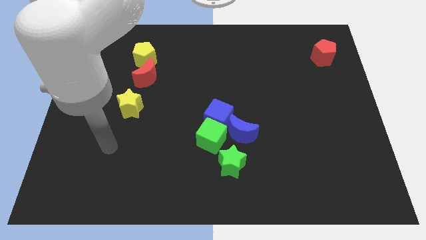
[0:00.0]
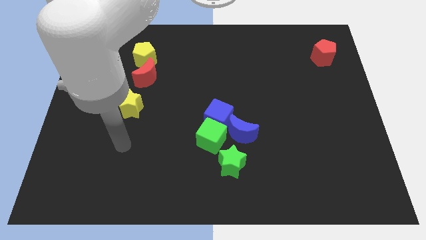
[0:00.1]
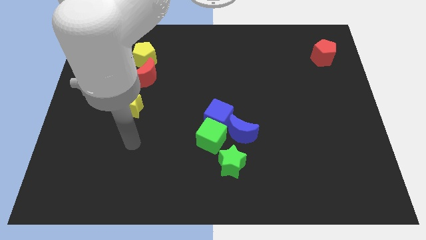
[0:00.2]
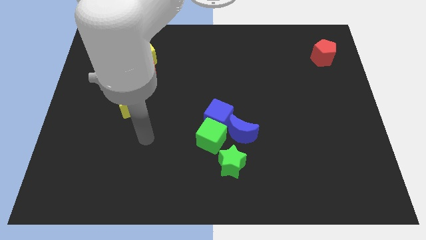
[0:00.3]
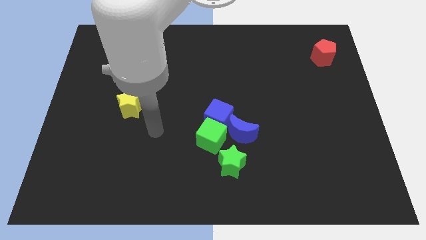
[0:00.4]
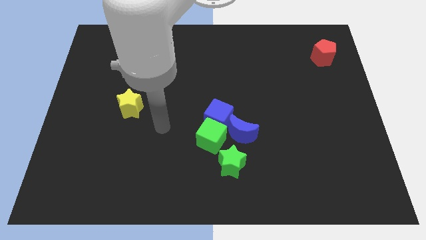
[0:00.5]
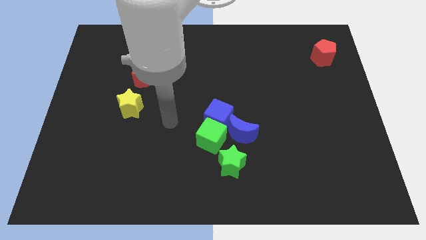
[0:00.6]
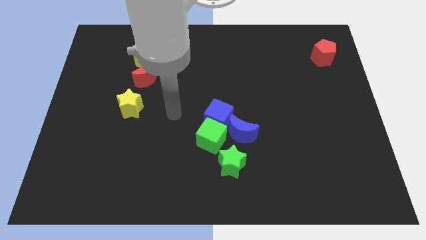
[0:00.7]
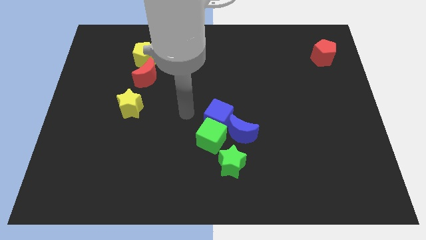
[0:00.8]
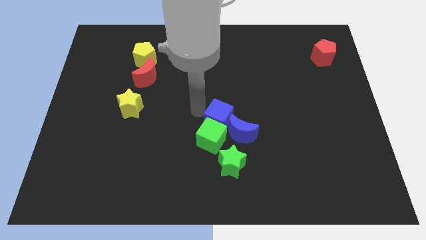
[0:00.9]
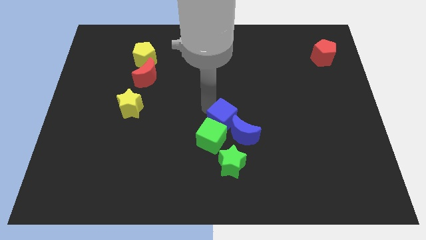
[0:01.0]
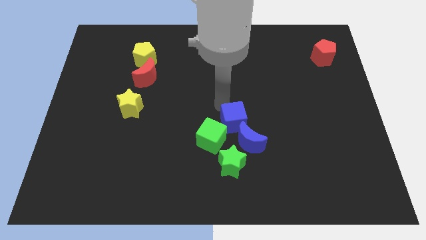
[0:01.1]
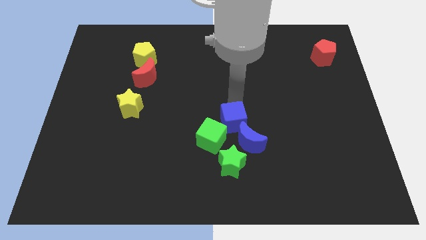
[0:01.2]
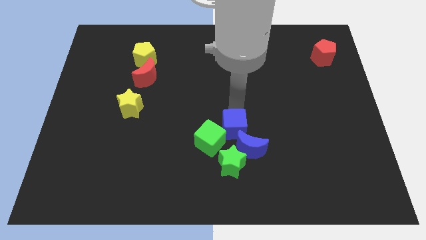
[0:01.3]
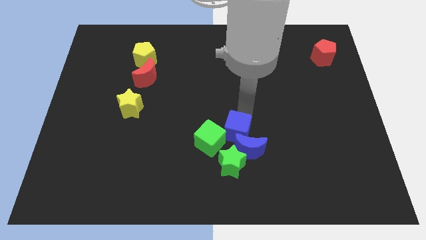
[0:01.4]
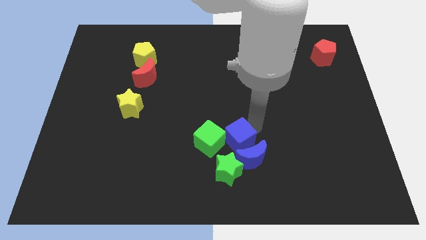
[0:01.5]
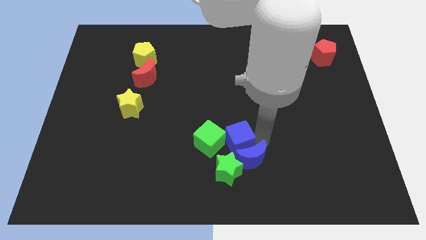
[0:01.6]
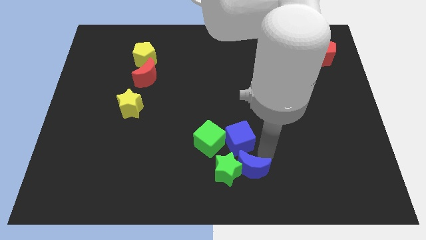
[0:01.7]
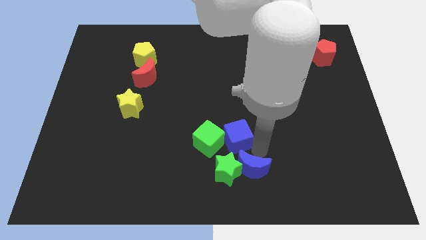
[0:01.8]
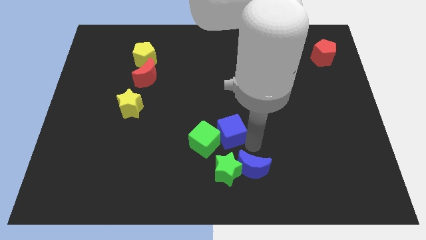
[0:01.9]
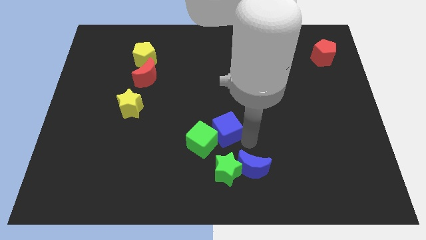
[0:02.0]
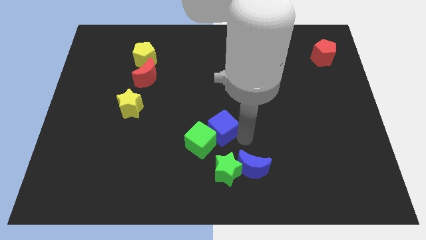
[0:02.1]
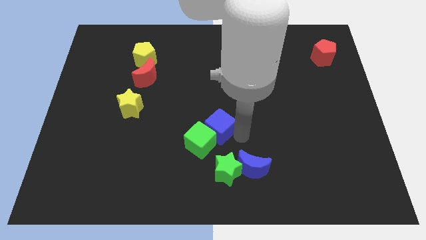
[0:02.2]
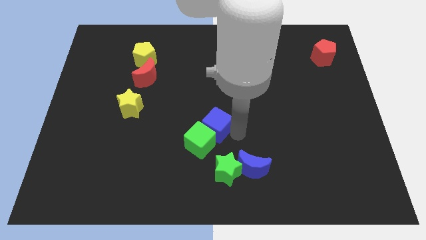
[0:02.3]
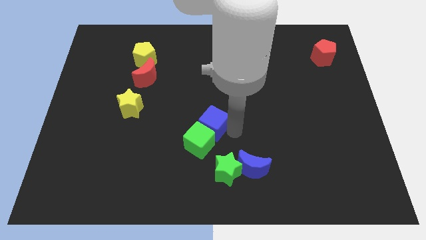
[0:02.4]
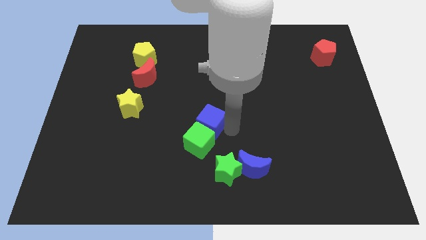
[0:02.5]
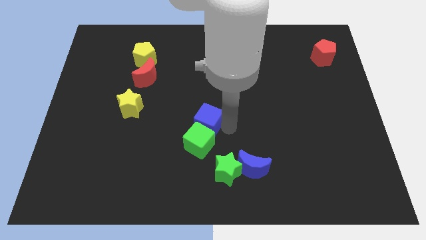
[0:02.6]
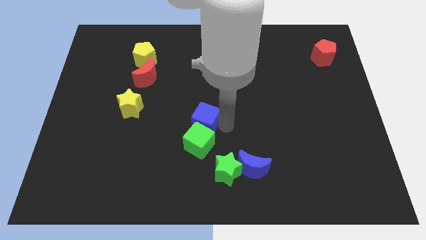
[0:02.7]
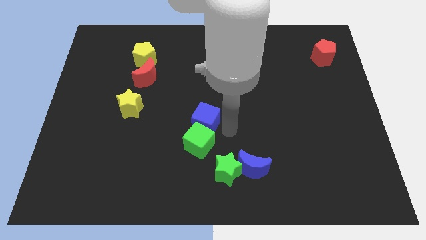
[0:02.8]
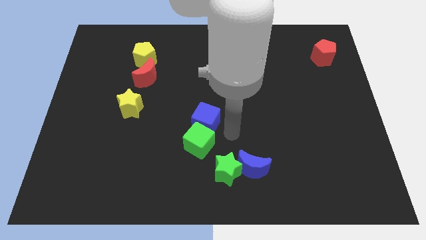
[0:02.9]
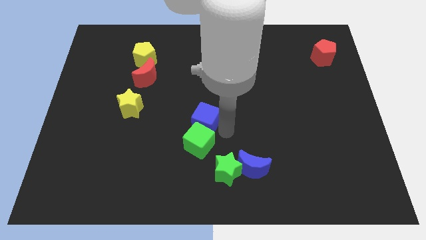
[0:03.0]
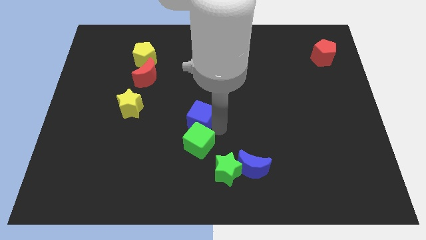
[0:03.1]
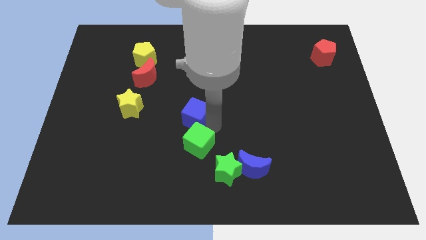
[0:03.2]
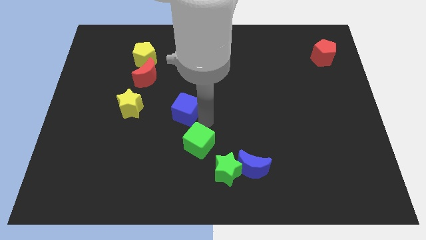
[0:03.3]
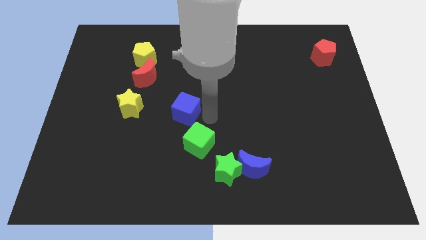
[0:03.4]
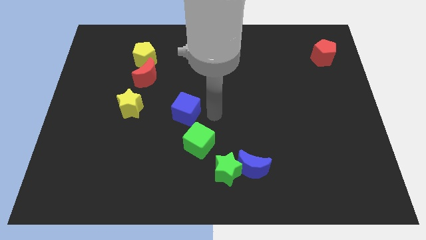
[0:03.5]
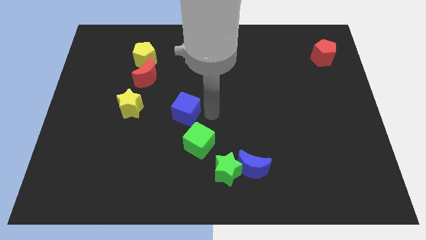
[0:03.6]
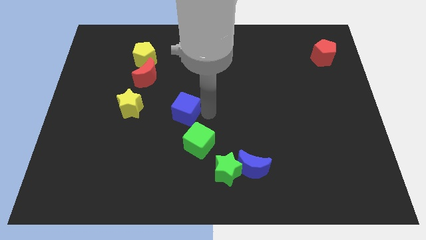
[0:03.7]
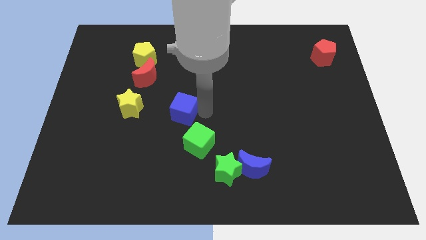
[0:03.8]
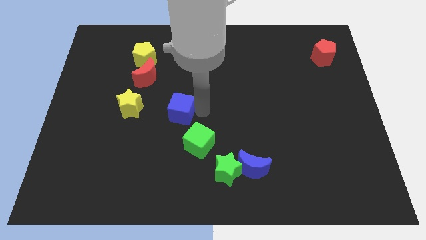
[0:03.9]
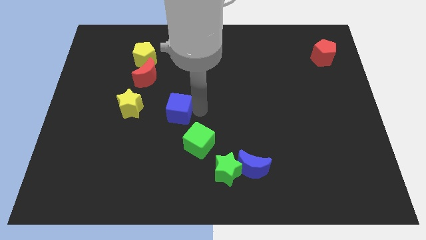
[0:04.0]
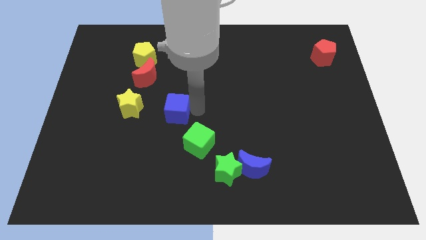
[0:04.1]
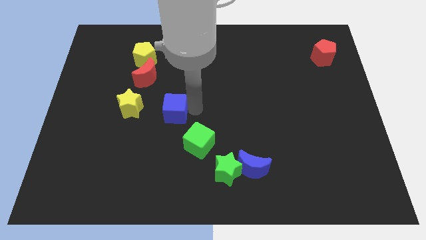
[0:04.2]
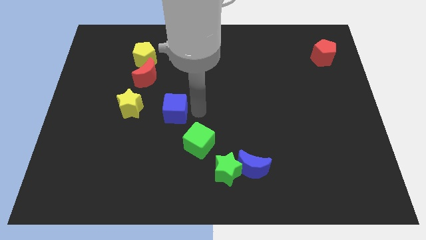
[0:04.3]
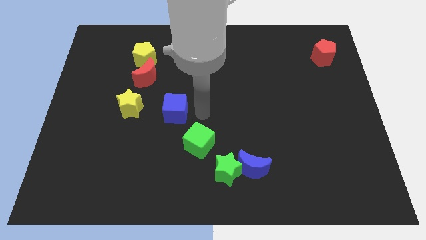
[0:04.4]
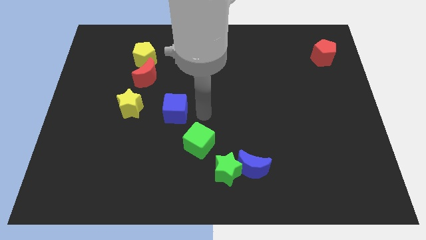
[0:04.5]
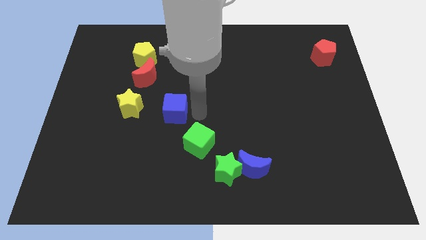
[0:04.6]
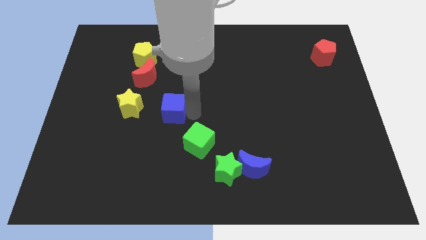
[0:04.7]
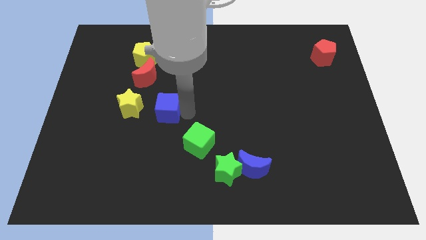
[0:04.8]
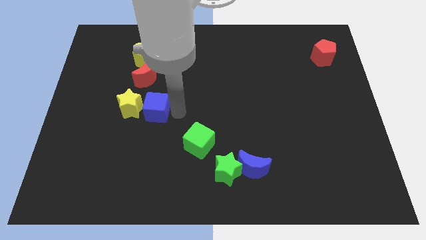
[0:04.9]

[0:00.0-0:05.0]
slide the blue cube to the yellow star

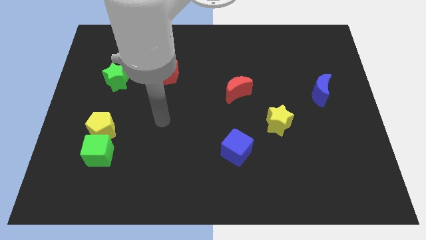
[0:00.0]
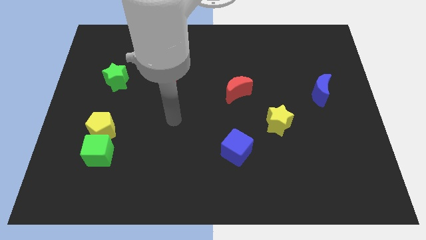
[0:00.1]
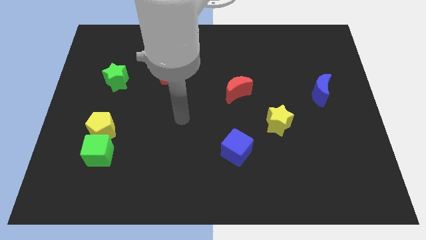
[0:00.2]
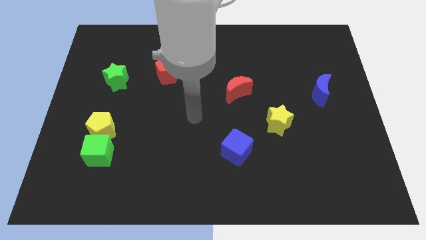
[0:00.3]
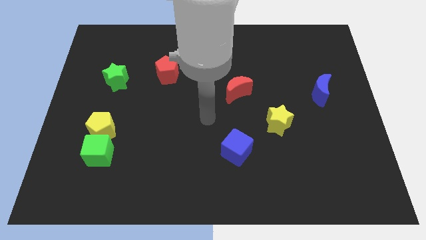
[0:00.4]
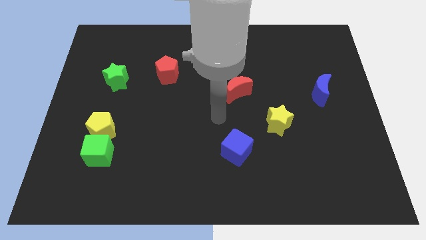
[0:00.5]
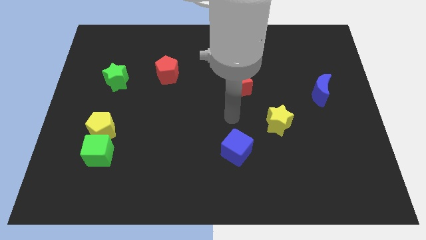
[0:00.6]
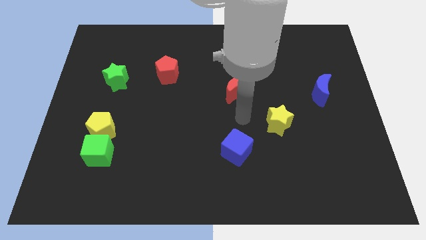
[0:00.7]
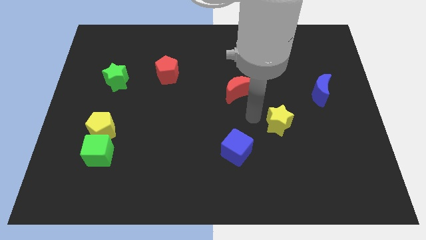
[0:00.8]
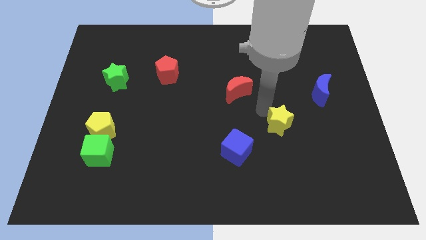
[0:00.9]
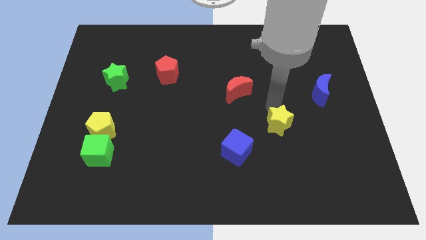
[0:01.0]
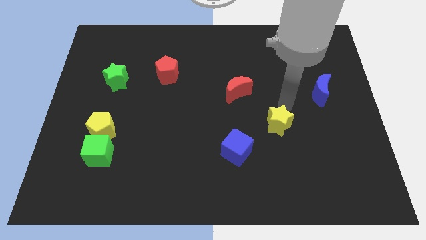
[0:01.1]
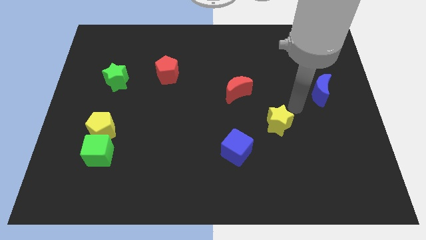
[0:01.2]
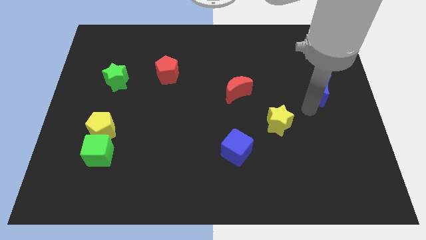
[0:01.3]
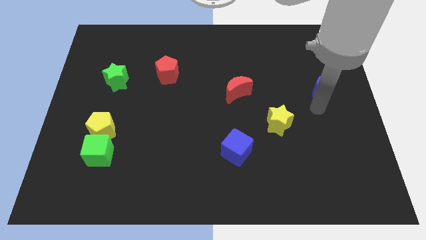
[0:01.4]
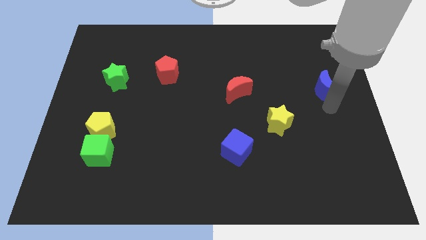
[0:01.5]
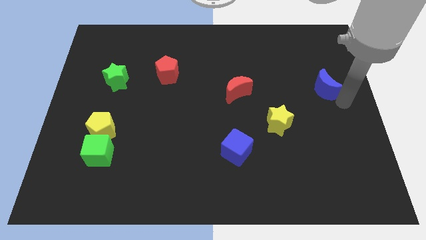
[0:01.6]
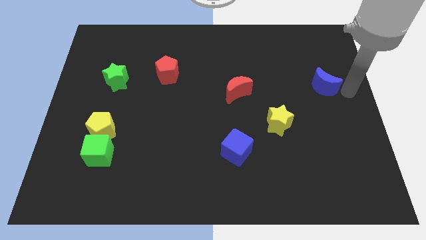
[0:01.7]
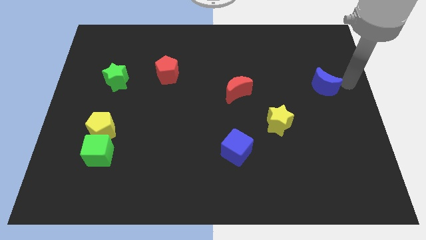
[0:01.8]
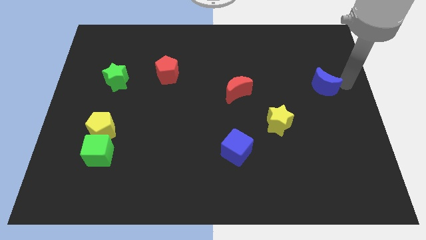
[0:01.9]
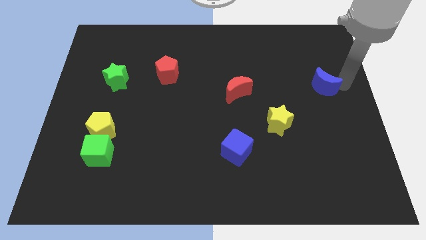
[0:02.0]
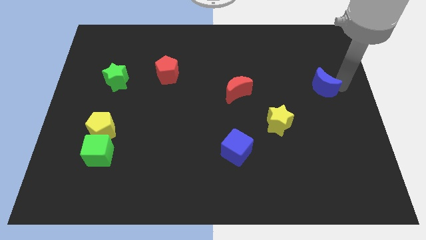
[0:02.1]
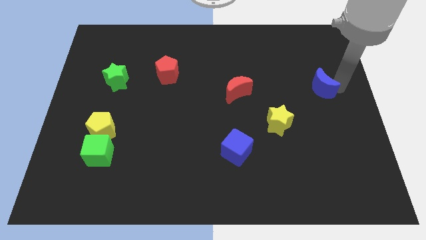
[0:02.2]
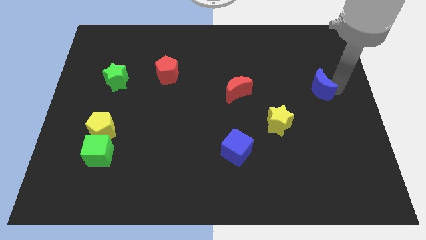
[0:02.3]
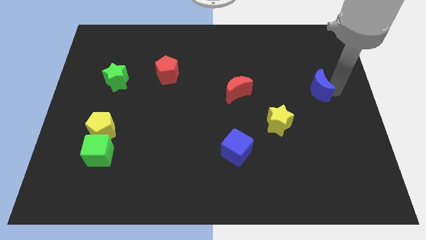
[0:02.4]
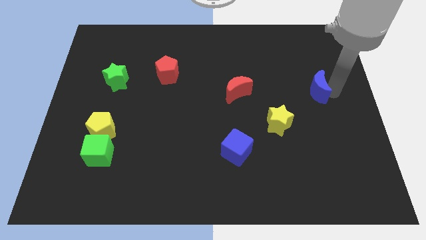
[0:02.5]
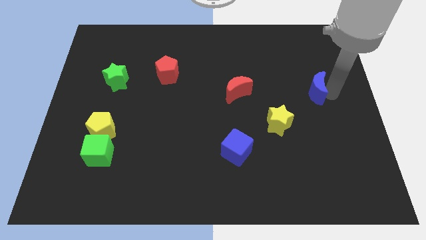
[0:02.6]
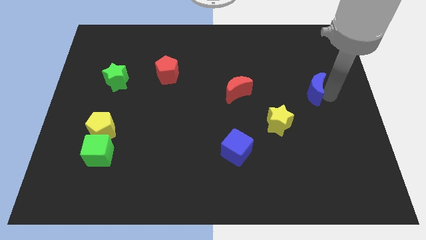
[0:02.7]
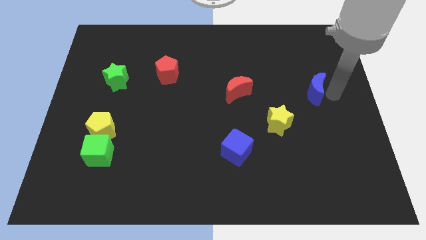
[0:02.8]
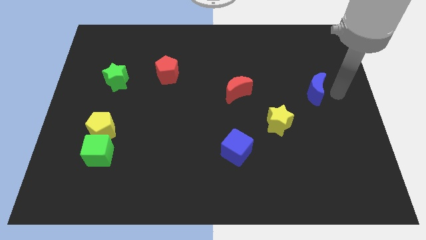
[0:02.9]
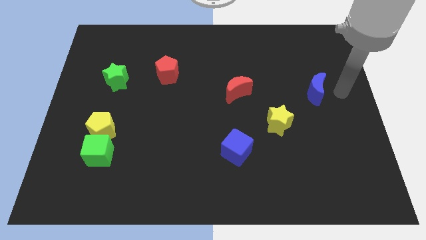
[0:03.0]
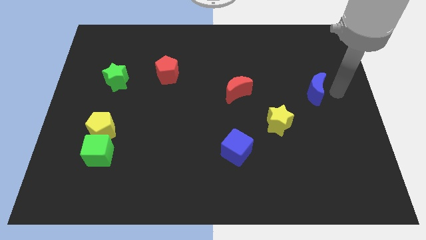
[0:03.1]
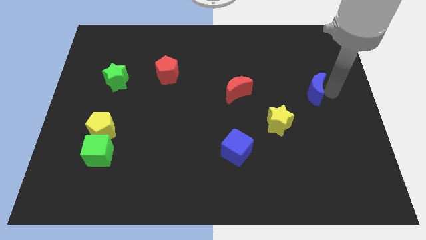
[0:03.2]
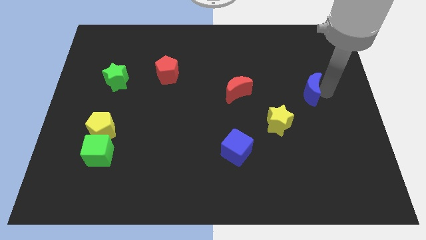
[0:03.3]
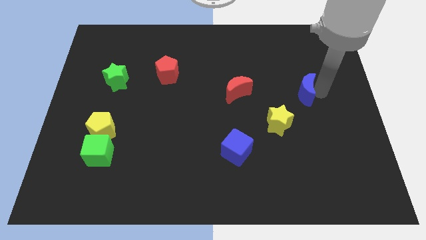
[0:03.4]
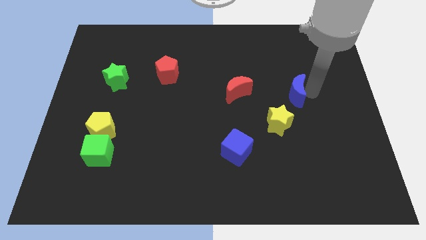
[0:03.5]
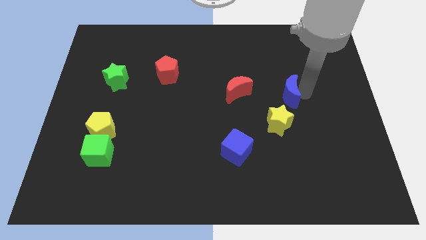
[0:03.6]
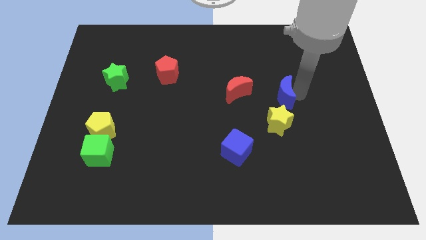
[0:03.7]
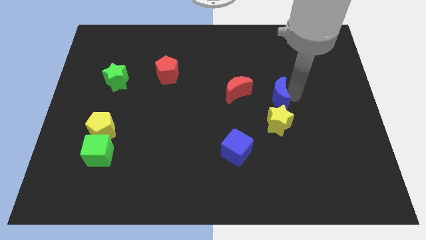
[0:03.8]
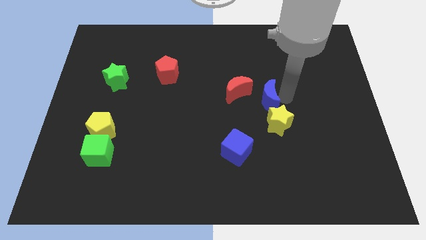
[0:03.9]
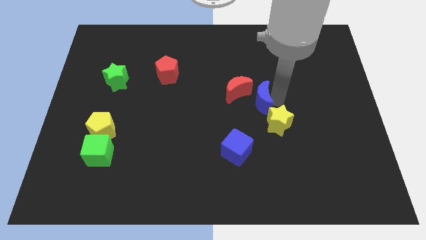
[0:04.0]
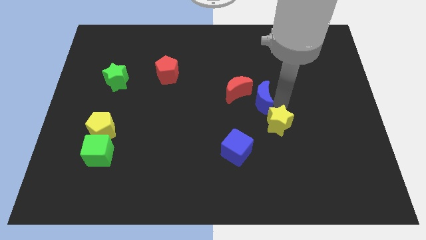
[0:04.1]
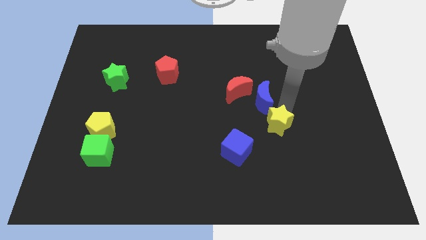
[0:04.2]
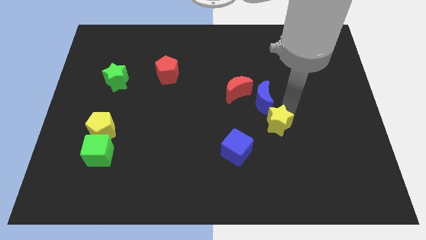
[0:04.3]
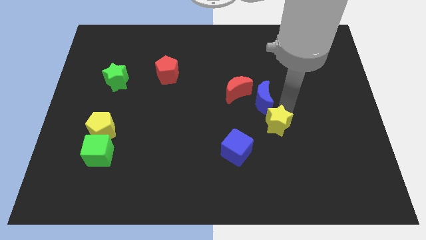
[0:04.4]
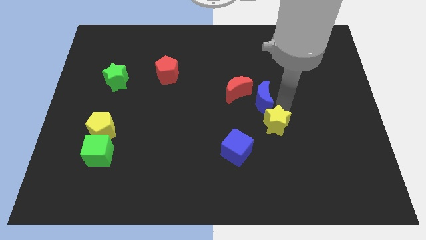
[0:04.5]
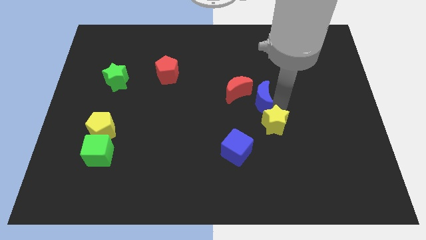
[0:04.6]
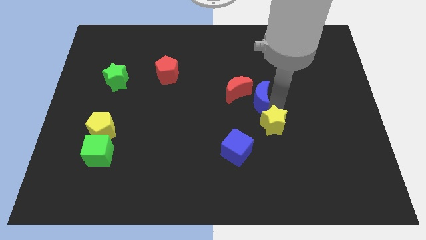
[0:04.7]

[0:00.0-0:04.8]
move the blue moon towards the red moon
